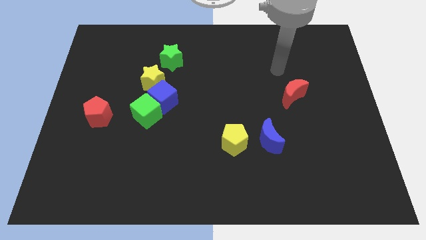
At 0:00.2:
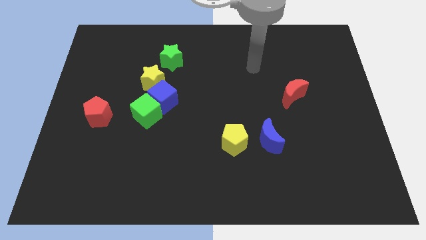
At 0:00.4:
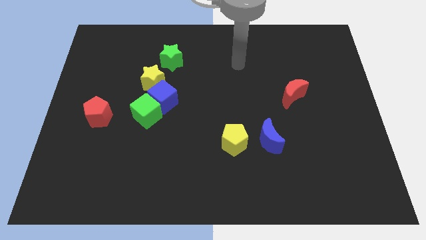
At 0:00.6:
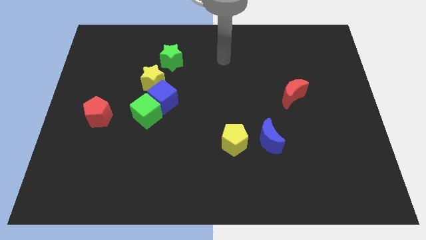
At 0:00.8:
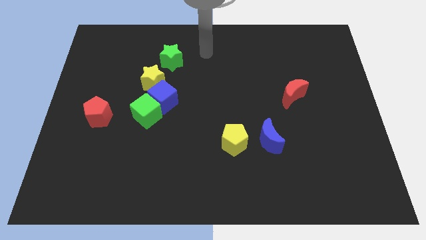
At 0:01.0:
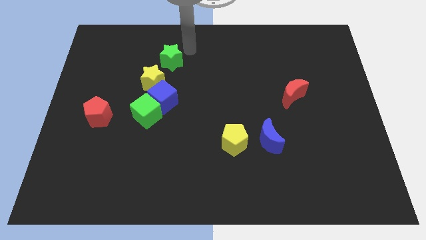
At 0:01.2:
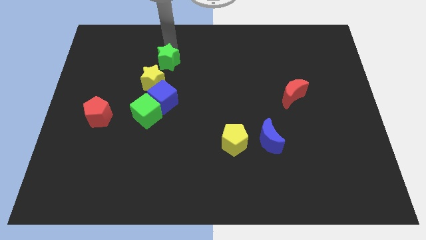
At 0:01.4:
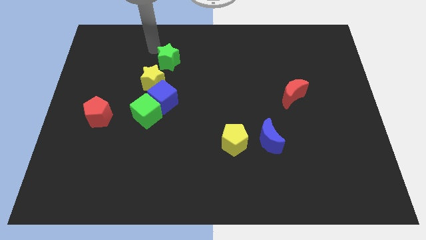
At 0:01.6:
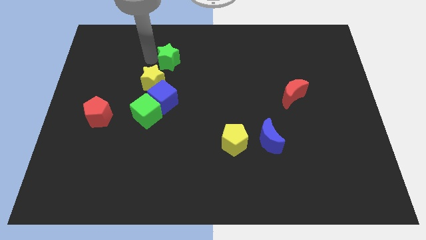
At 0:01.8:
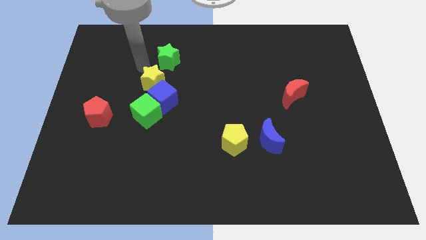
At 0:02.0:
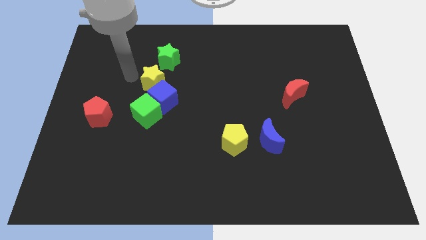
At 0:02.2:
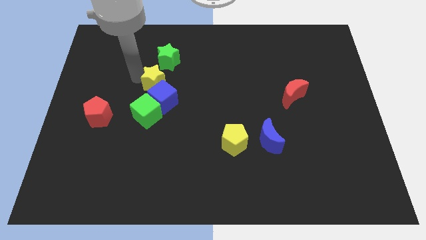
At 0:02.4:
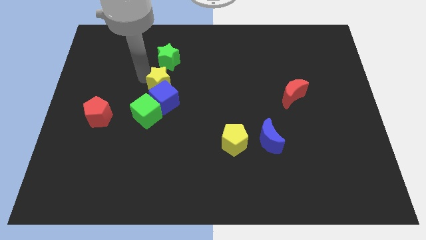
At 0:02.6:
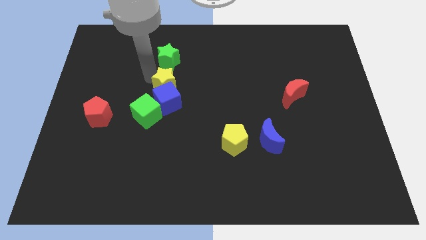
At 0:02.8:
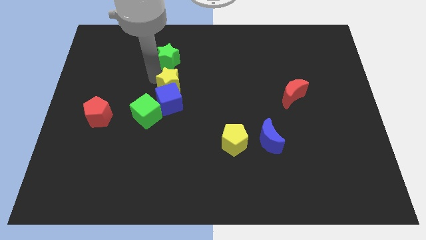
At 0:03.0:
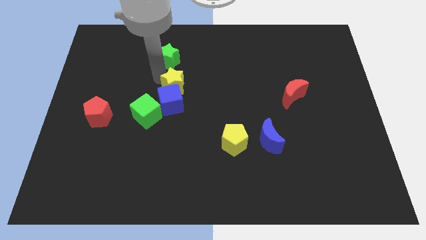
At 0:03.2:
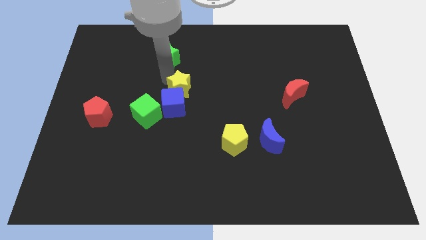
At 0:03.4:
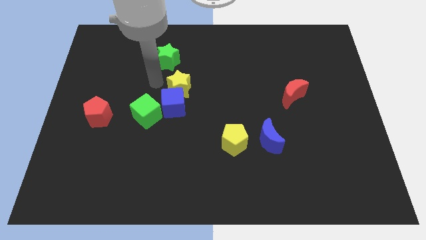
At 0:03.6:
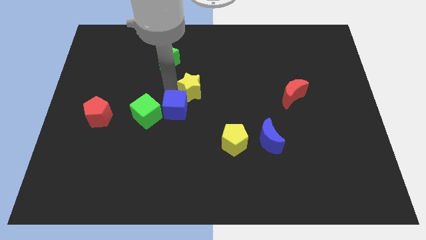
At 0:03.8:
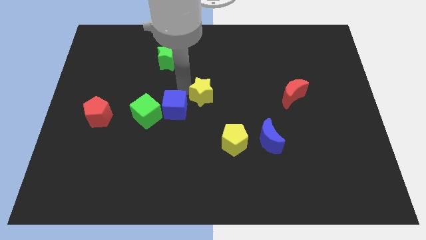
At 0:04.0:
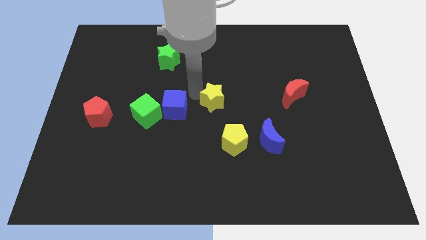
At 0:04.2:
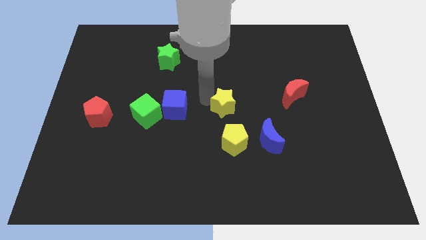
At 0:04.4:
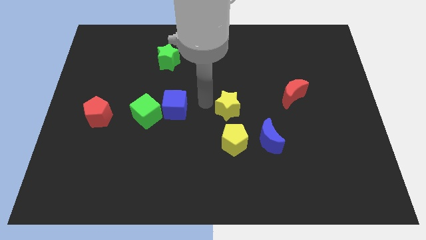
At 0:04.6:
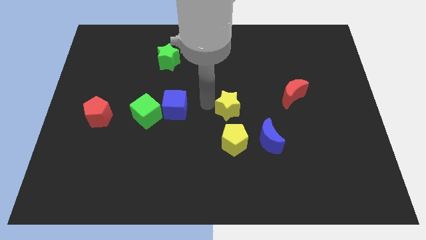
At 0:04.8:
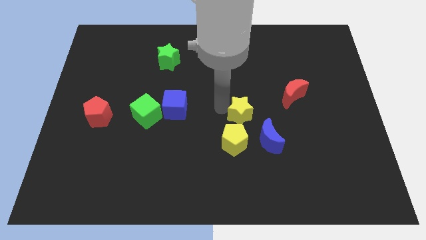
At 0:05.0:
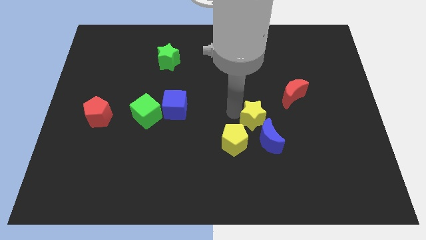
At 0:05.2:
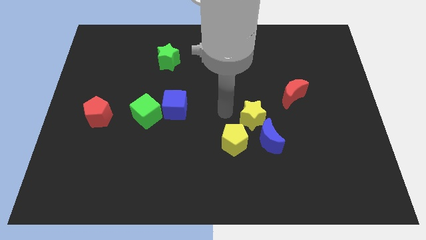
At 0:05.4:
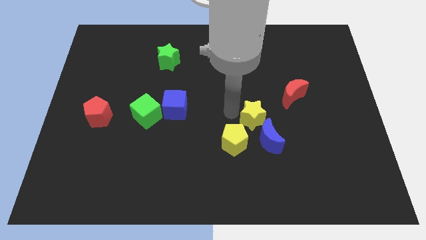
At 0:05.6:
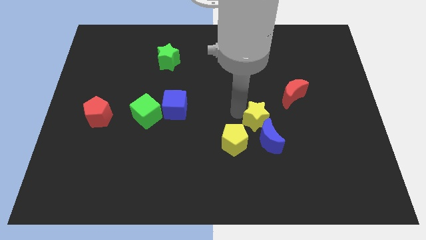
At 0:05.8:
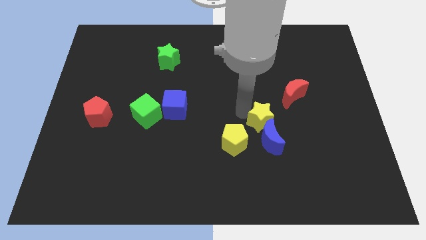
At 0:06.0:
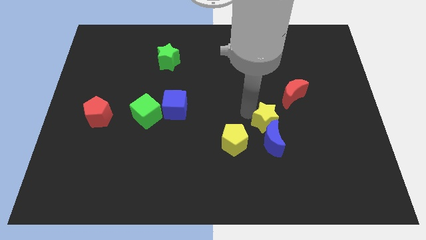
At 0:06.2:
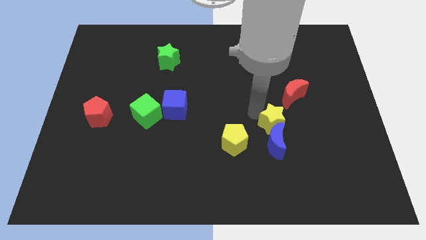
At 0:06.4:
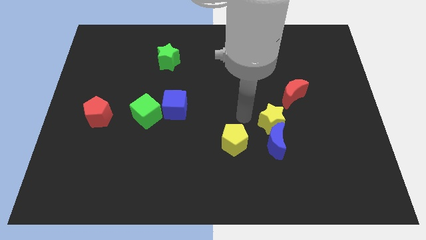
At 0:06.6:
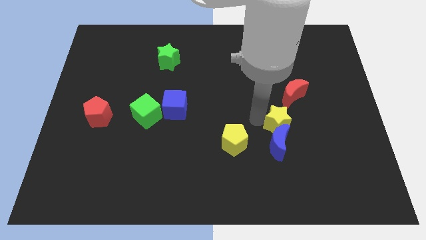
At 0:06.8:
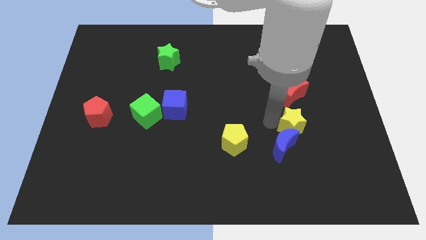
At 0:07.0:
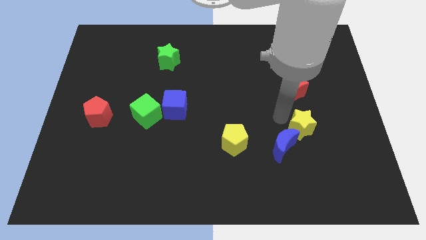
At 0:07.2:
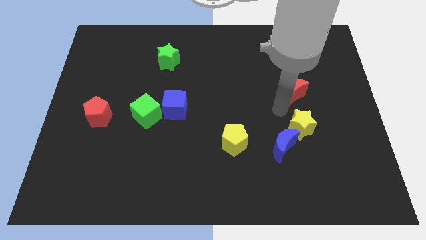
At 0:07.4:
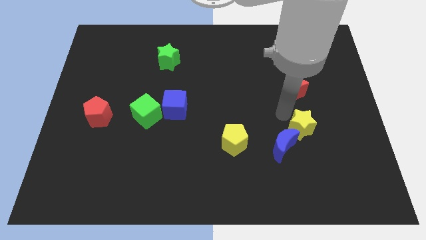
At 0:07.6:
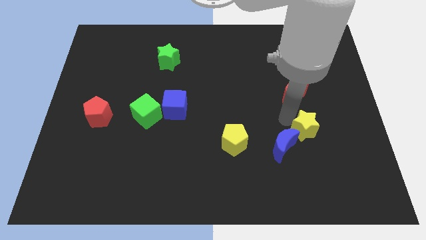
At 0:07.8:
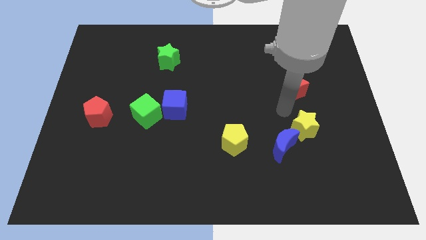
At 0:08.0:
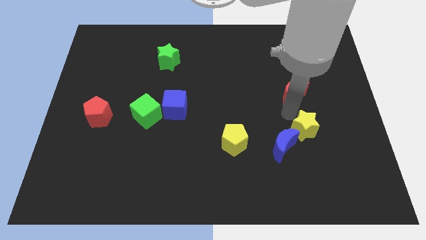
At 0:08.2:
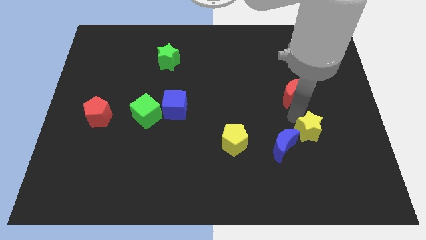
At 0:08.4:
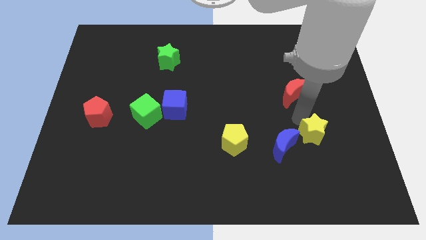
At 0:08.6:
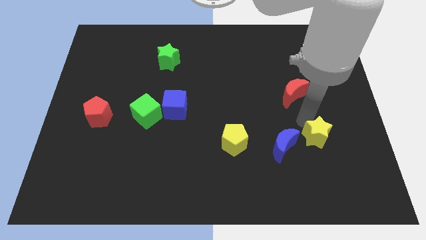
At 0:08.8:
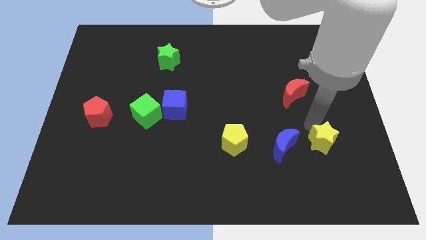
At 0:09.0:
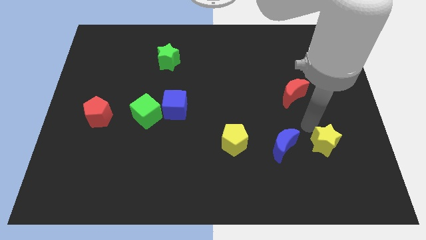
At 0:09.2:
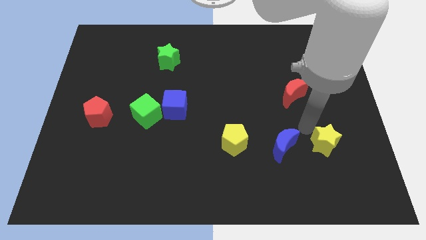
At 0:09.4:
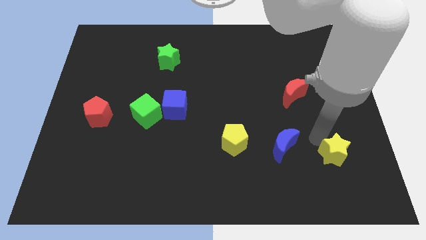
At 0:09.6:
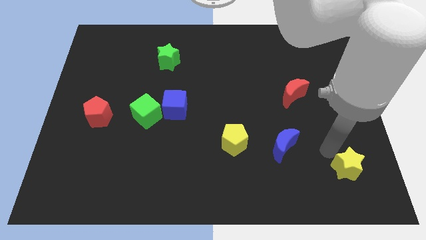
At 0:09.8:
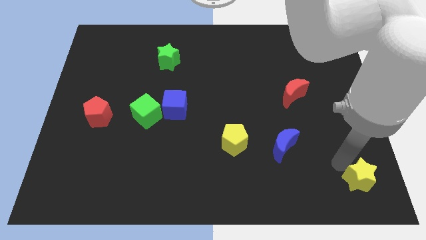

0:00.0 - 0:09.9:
slide the yellow star to the bottom right

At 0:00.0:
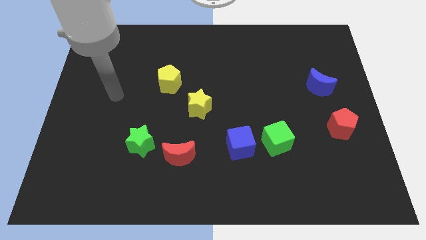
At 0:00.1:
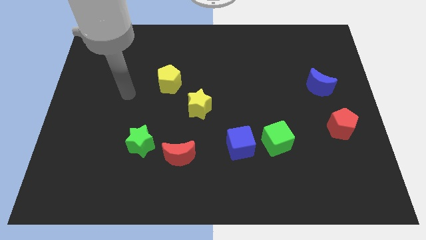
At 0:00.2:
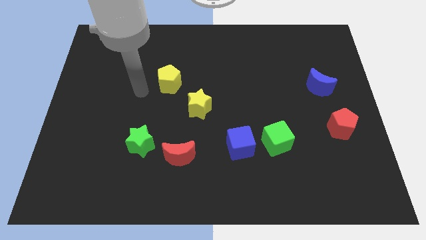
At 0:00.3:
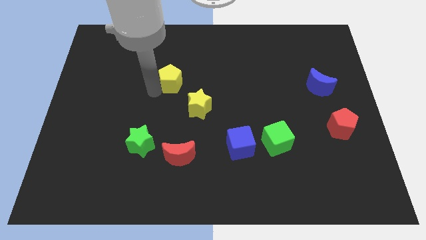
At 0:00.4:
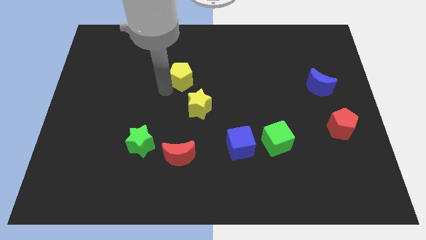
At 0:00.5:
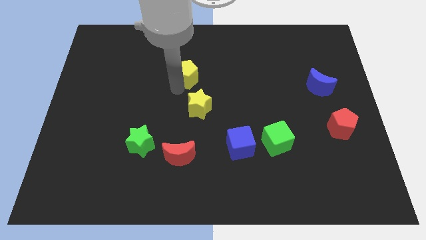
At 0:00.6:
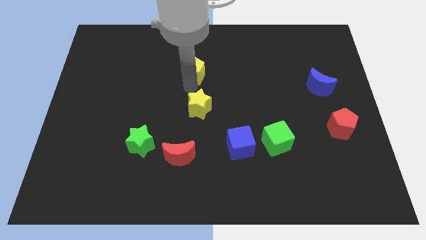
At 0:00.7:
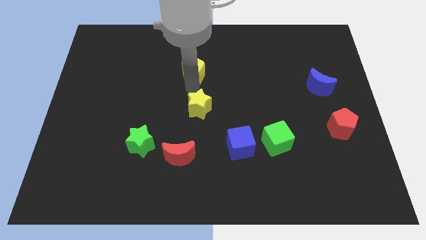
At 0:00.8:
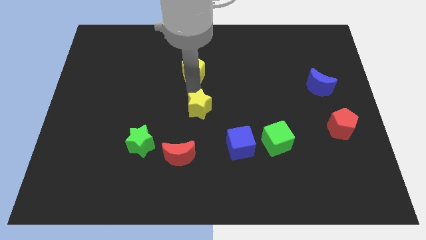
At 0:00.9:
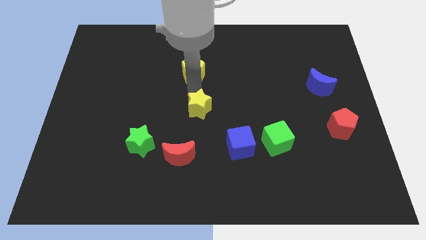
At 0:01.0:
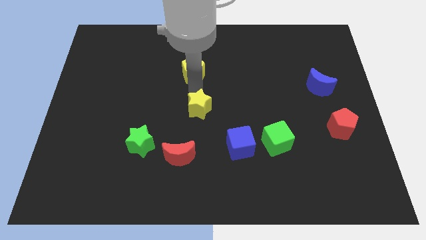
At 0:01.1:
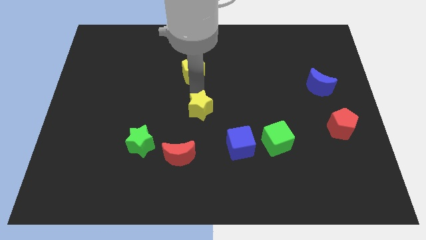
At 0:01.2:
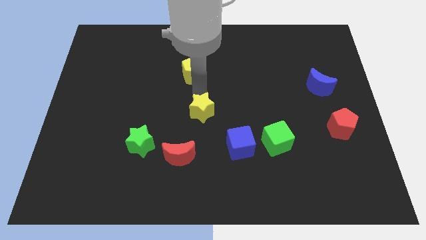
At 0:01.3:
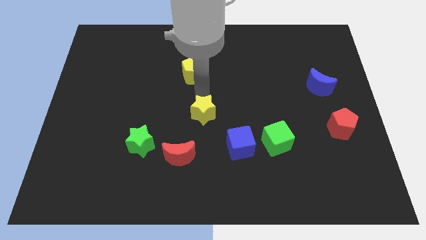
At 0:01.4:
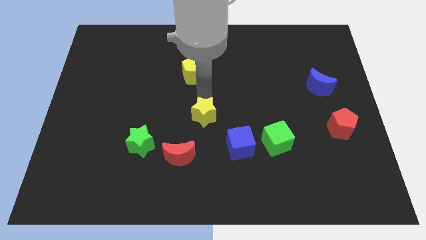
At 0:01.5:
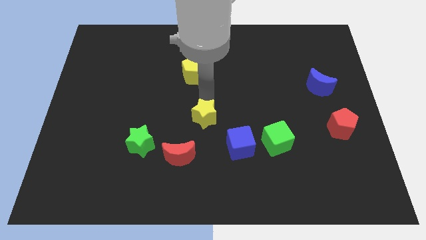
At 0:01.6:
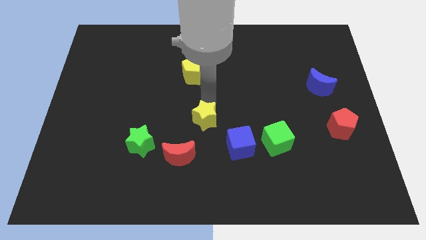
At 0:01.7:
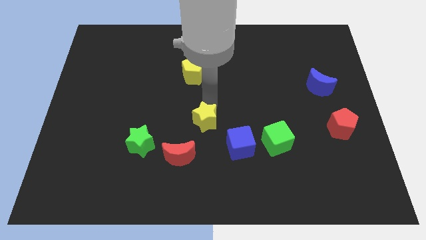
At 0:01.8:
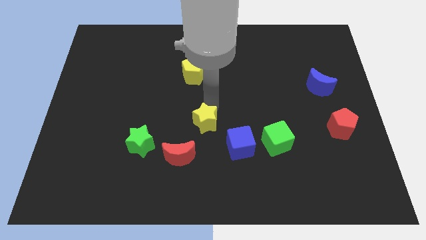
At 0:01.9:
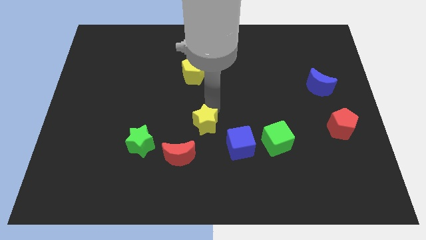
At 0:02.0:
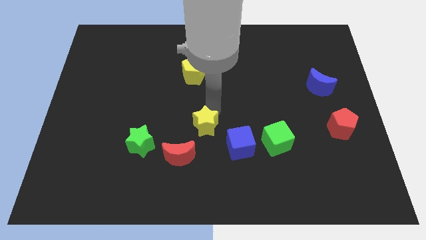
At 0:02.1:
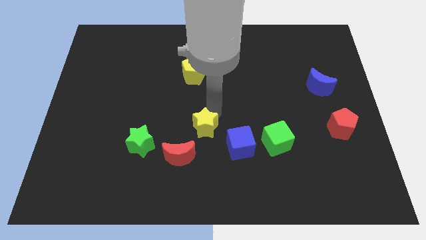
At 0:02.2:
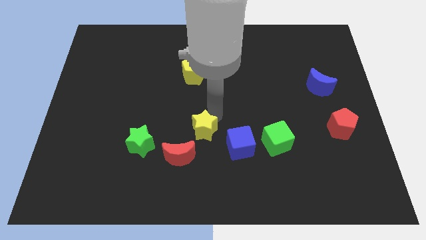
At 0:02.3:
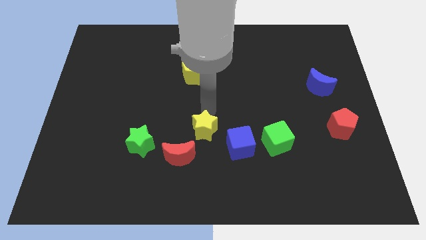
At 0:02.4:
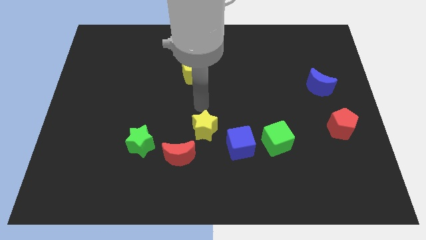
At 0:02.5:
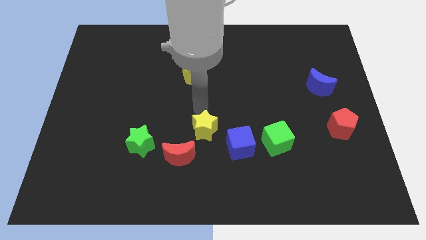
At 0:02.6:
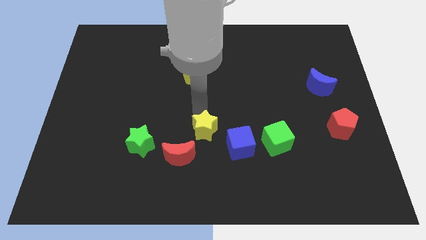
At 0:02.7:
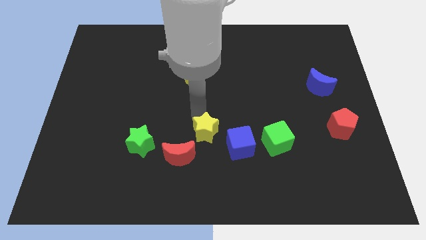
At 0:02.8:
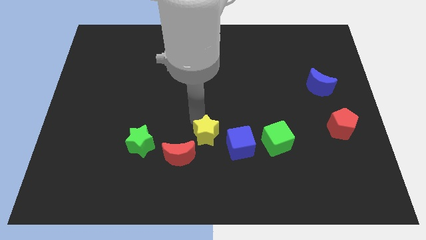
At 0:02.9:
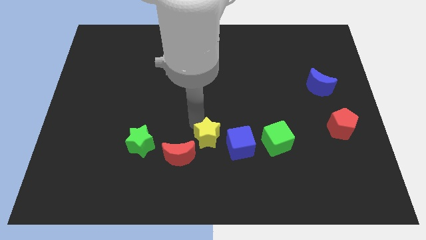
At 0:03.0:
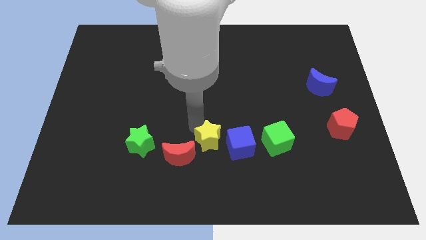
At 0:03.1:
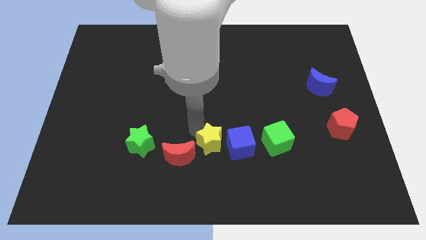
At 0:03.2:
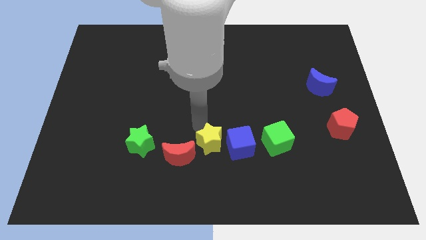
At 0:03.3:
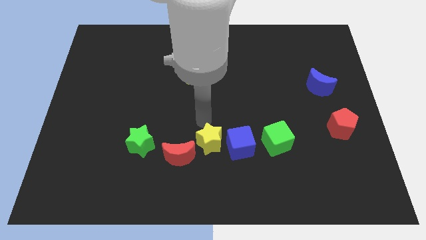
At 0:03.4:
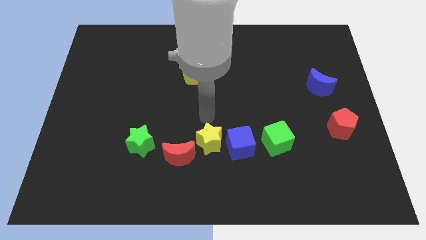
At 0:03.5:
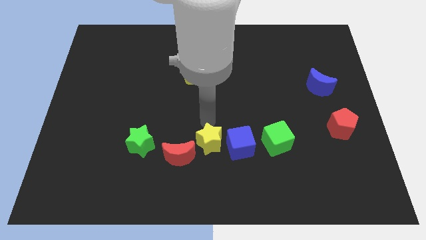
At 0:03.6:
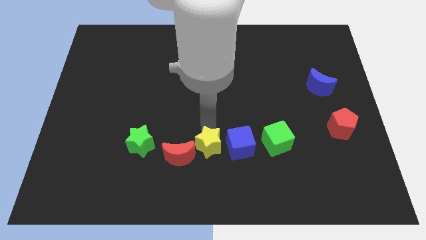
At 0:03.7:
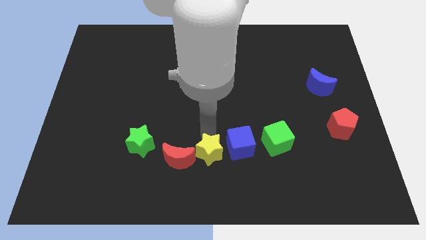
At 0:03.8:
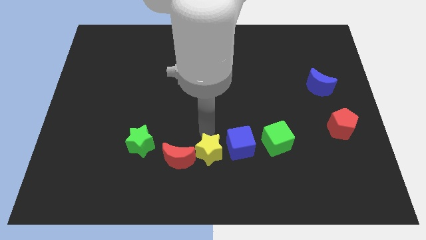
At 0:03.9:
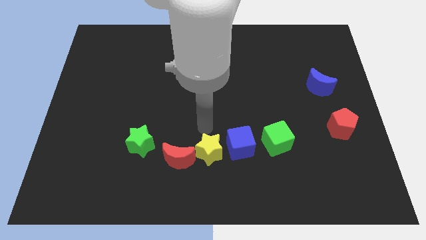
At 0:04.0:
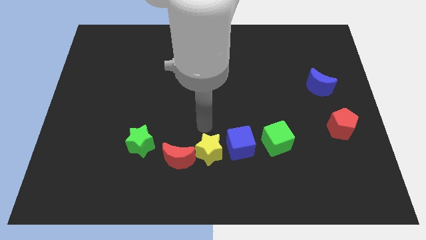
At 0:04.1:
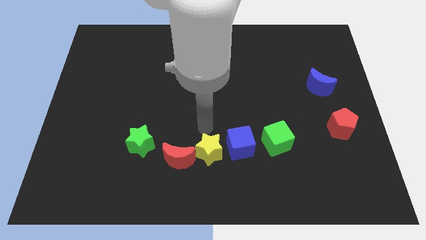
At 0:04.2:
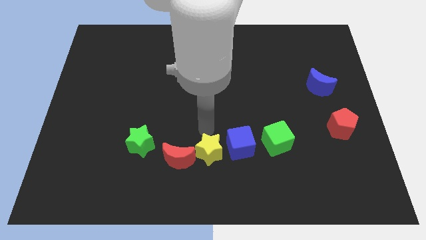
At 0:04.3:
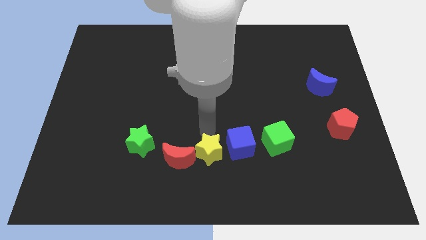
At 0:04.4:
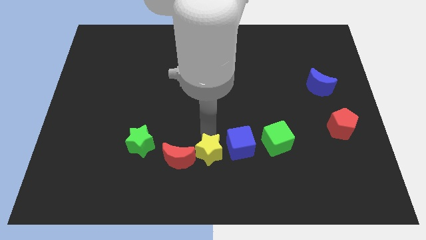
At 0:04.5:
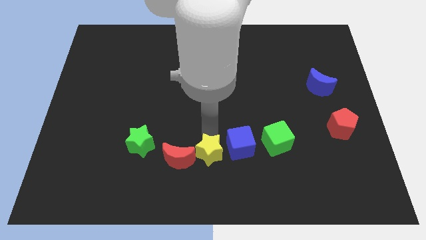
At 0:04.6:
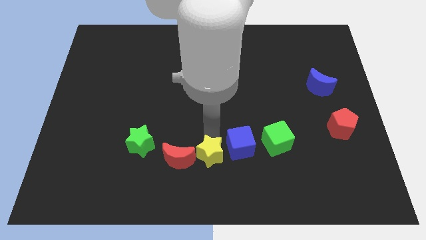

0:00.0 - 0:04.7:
slide the yellow star to the bottom
